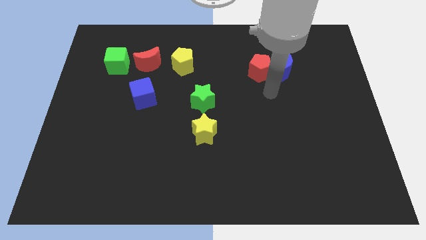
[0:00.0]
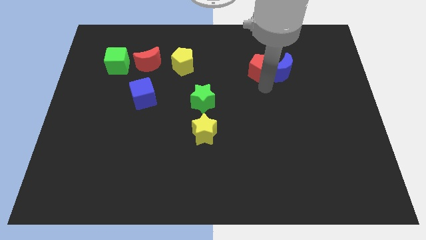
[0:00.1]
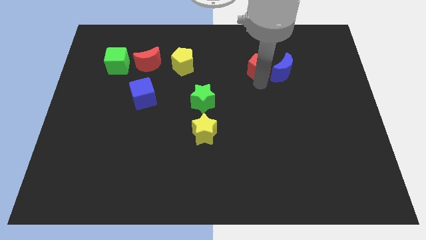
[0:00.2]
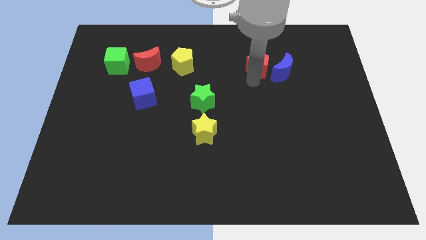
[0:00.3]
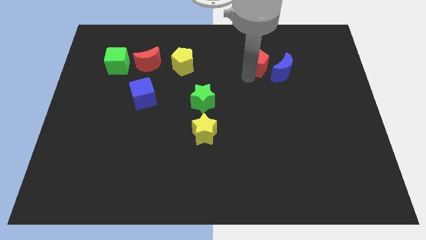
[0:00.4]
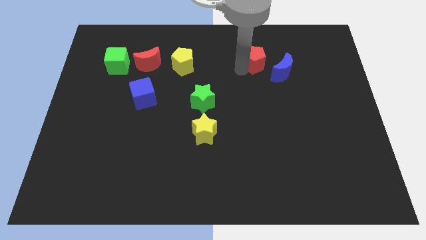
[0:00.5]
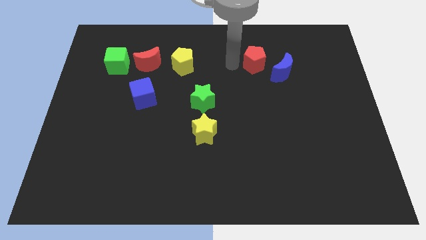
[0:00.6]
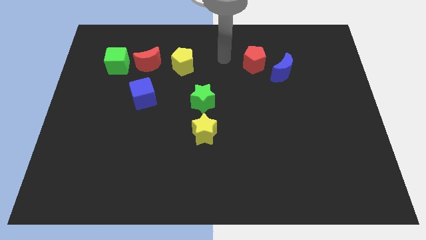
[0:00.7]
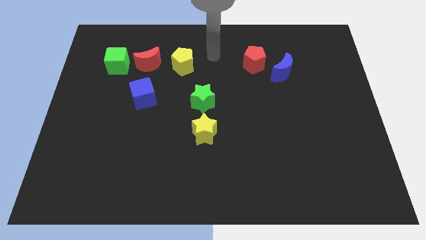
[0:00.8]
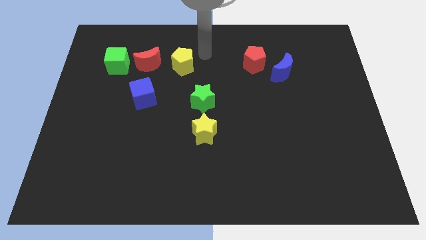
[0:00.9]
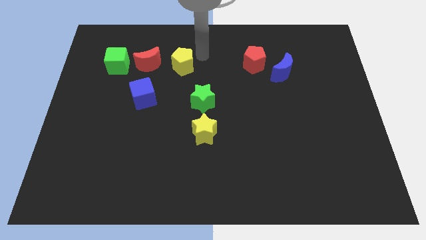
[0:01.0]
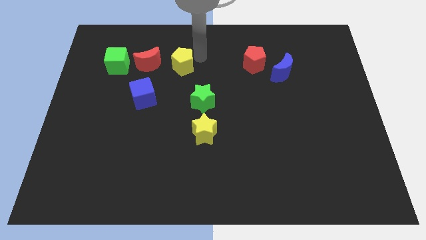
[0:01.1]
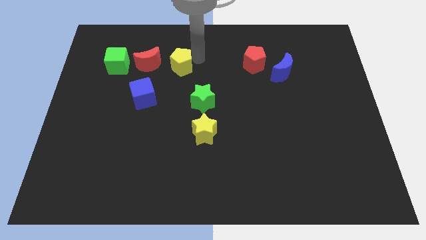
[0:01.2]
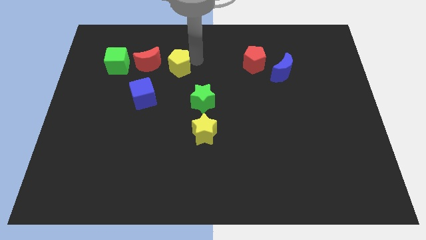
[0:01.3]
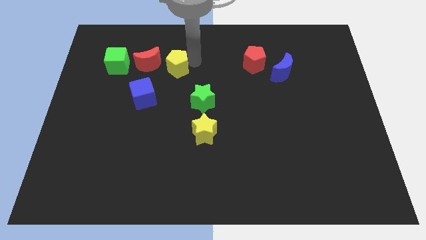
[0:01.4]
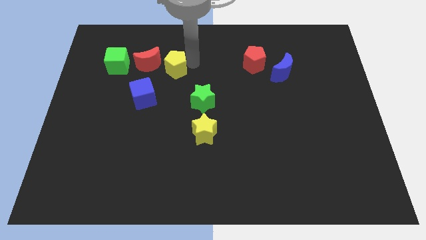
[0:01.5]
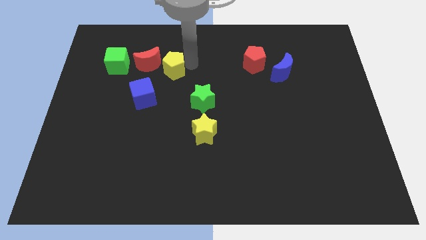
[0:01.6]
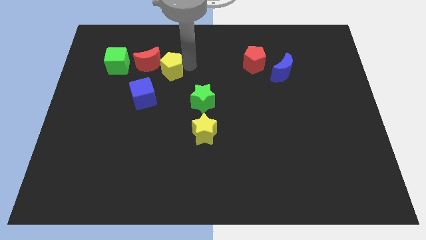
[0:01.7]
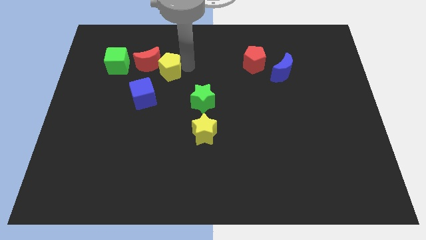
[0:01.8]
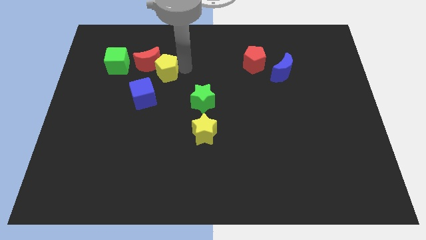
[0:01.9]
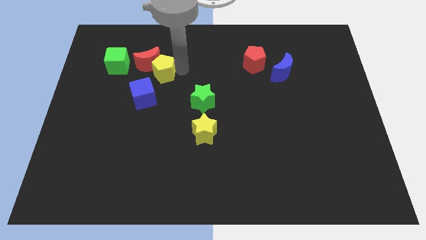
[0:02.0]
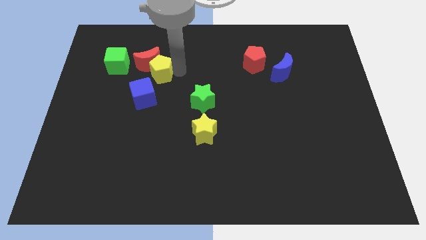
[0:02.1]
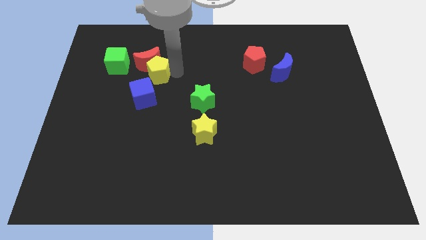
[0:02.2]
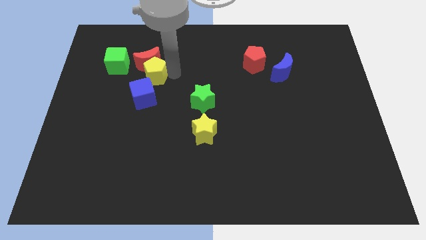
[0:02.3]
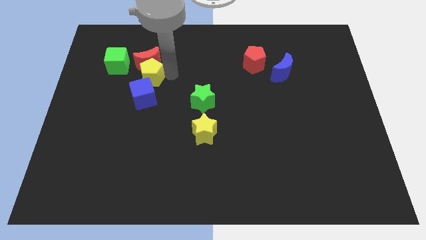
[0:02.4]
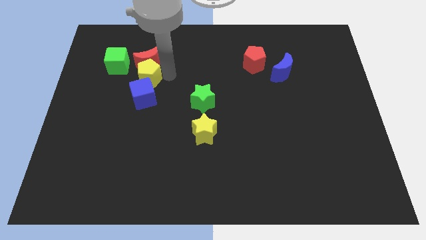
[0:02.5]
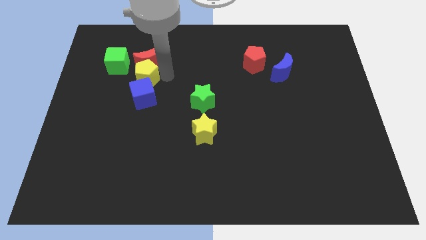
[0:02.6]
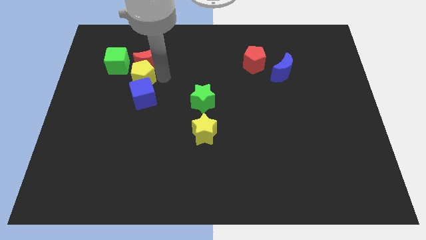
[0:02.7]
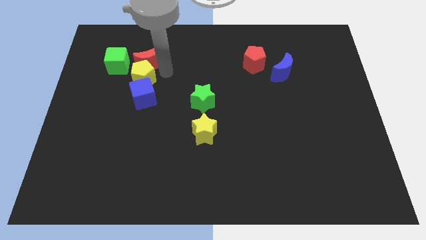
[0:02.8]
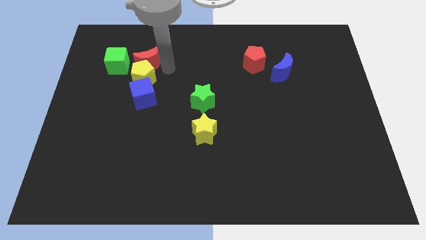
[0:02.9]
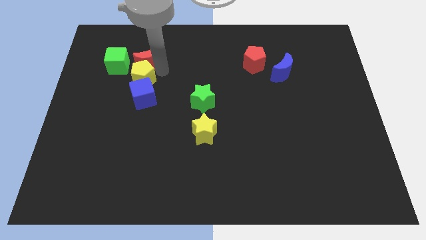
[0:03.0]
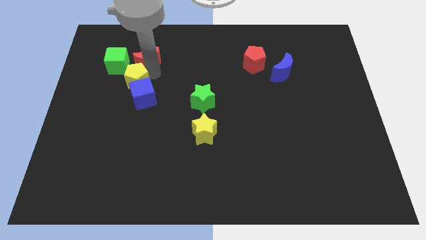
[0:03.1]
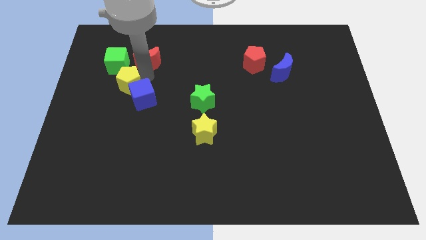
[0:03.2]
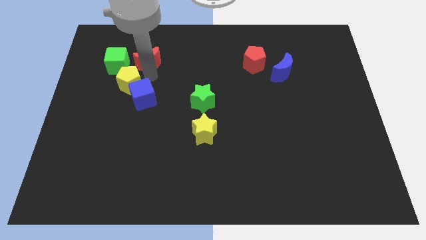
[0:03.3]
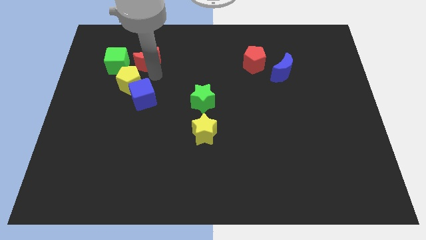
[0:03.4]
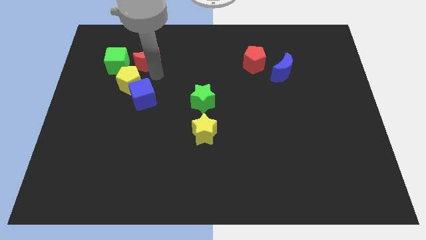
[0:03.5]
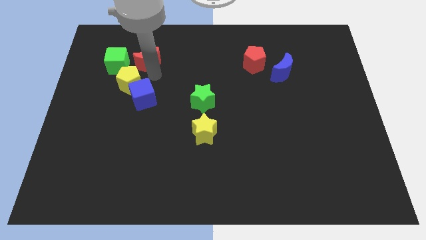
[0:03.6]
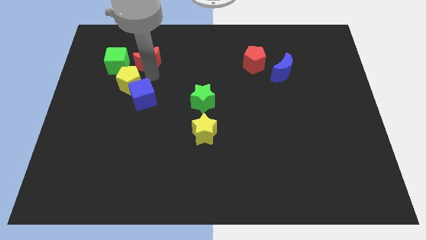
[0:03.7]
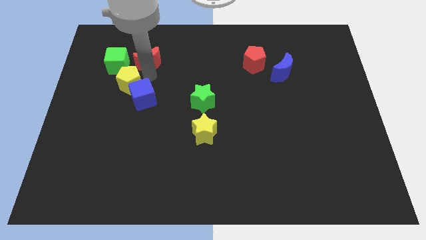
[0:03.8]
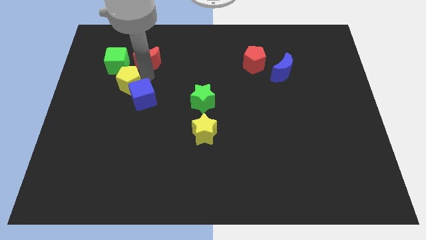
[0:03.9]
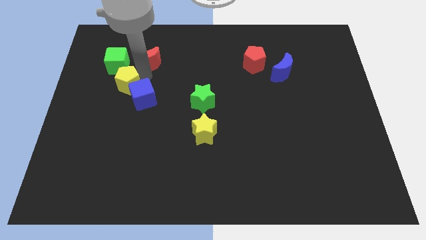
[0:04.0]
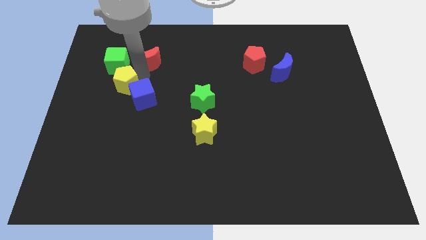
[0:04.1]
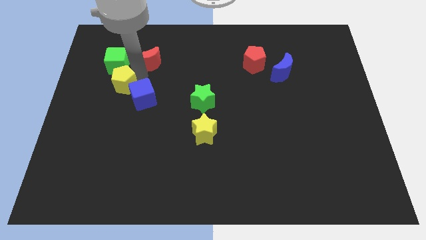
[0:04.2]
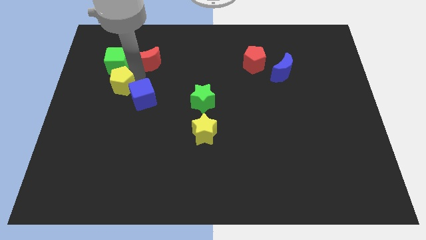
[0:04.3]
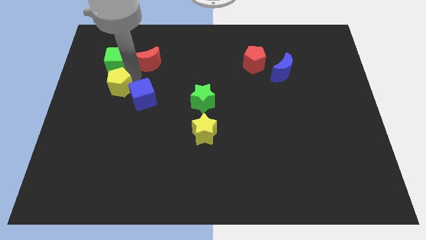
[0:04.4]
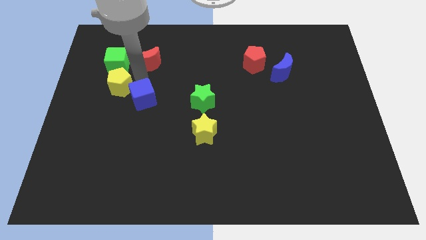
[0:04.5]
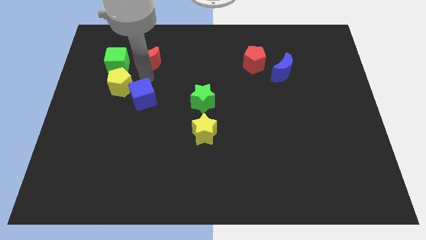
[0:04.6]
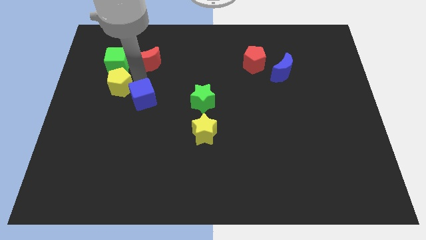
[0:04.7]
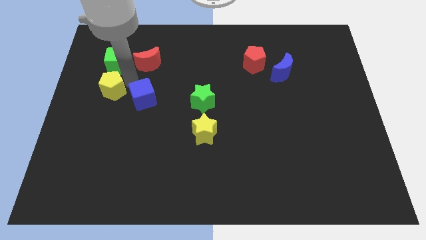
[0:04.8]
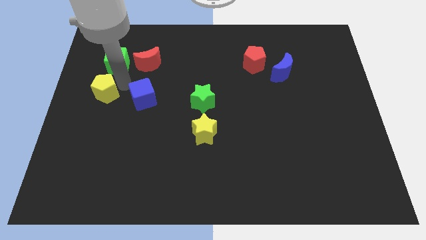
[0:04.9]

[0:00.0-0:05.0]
put the yellow pentagon to the center left

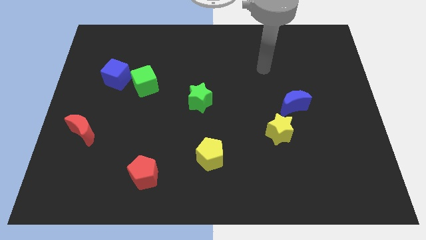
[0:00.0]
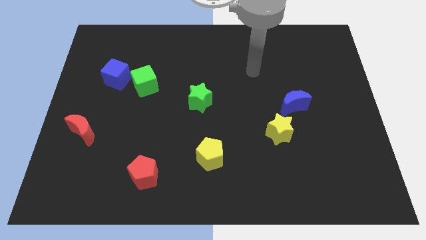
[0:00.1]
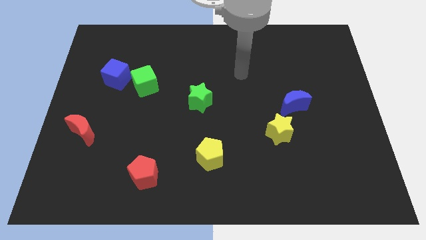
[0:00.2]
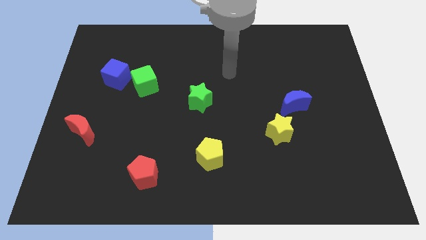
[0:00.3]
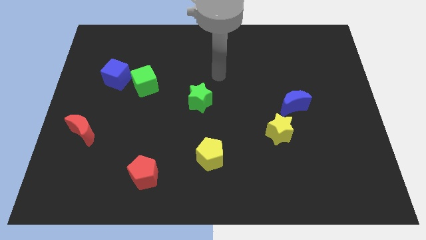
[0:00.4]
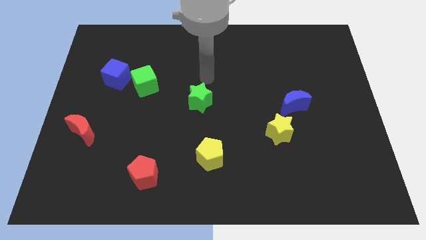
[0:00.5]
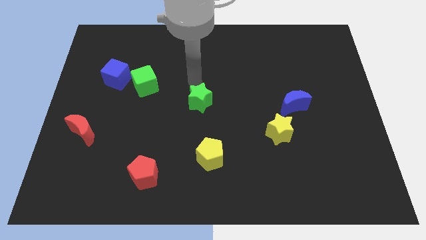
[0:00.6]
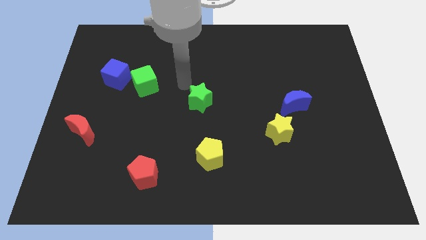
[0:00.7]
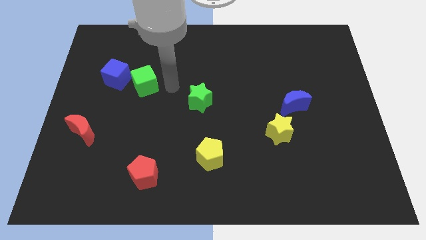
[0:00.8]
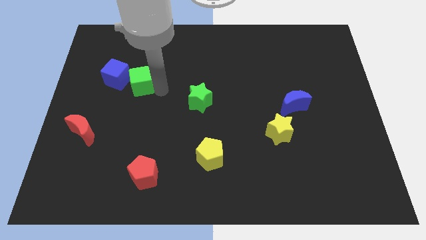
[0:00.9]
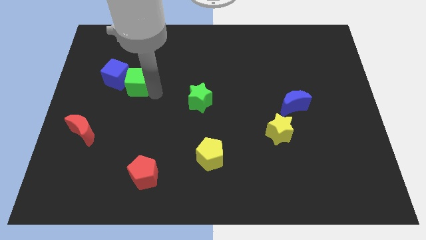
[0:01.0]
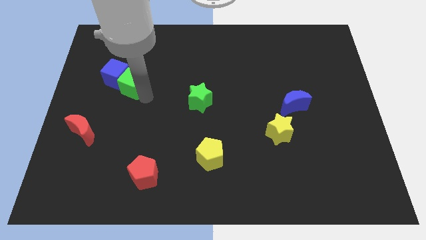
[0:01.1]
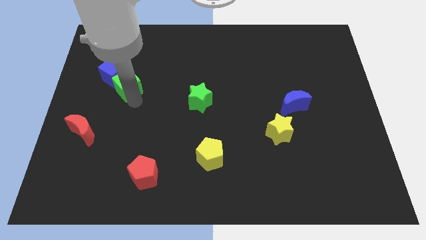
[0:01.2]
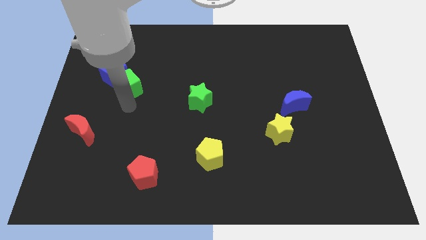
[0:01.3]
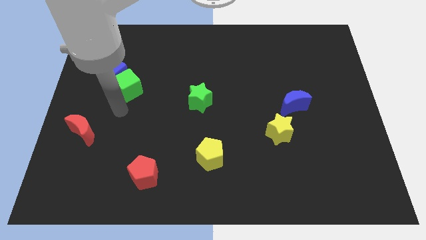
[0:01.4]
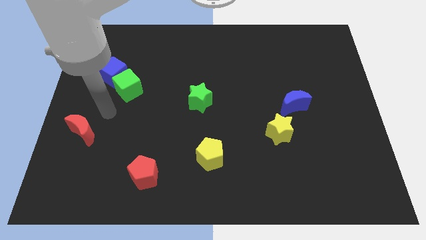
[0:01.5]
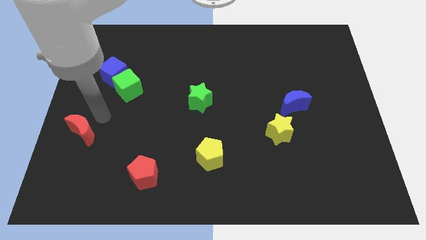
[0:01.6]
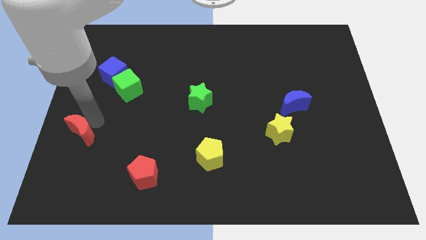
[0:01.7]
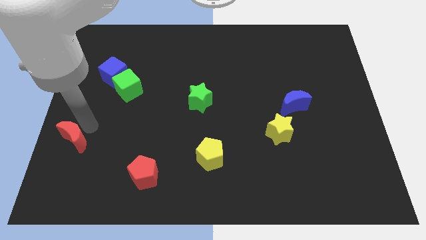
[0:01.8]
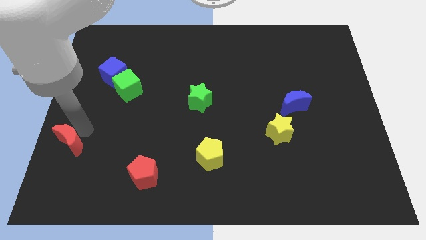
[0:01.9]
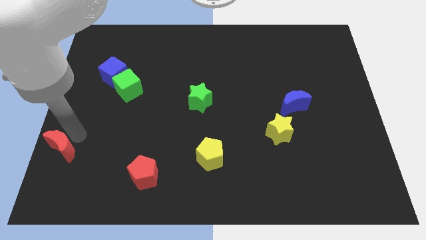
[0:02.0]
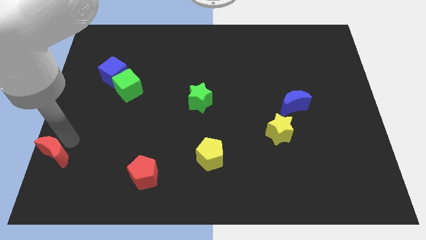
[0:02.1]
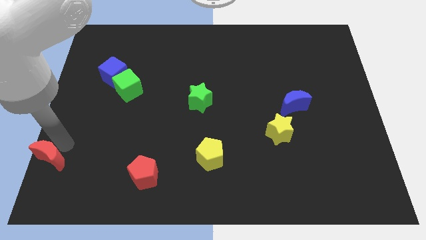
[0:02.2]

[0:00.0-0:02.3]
move the red moon to the bottom left of the board
